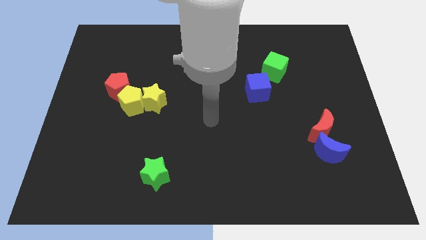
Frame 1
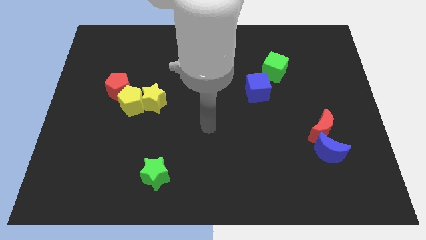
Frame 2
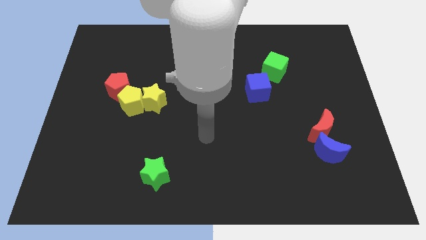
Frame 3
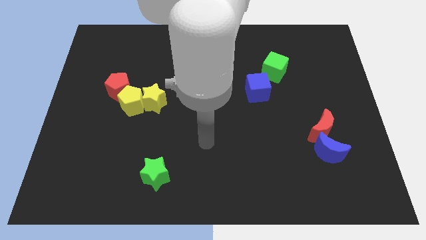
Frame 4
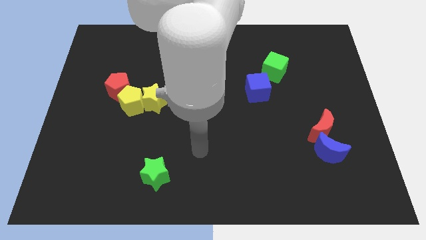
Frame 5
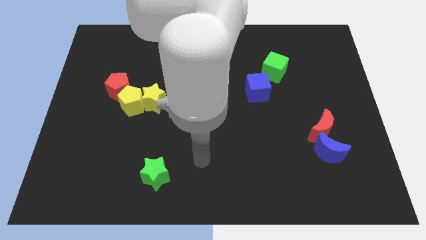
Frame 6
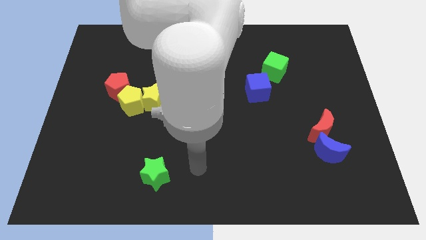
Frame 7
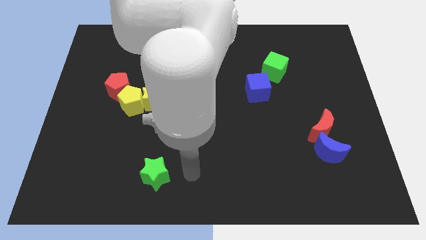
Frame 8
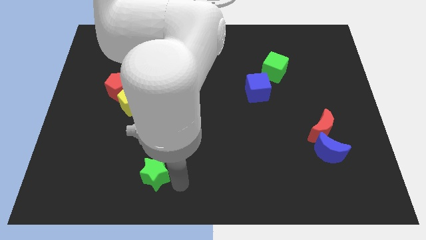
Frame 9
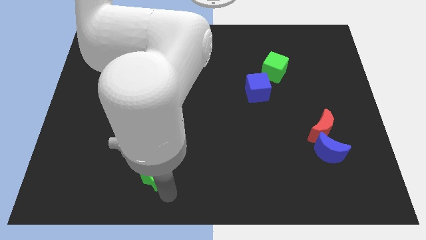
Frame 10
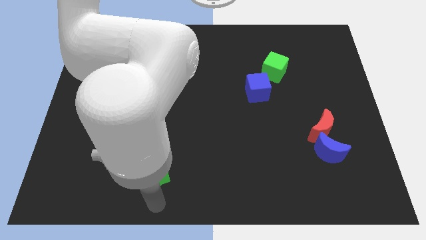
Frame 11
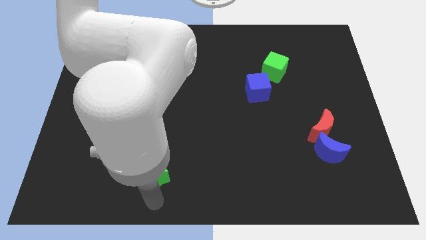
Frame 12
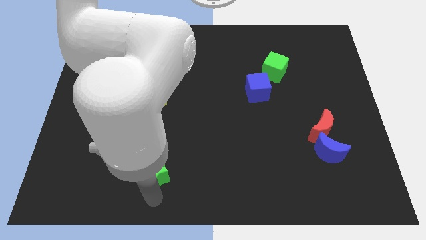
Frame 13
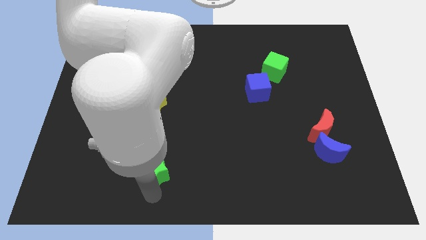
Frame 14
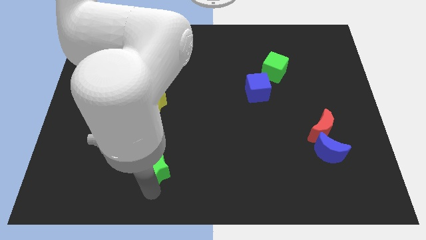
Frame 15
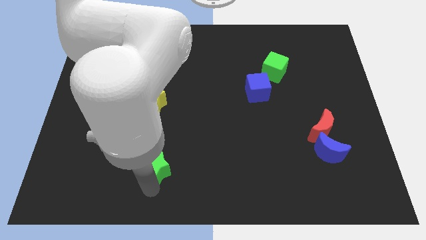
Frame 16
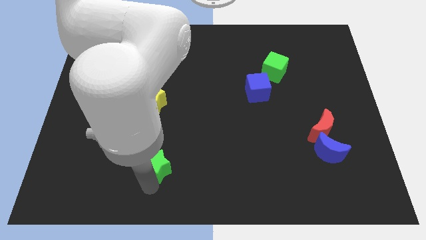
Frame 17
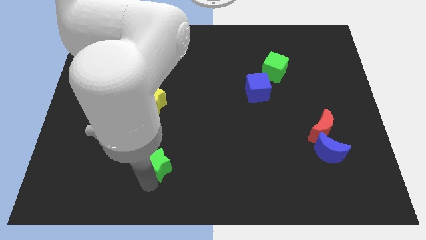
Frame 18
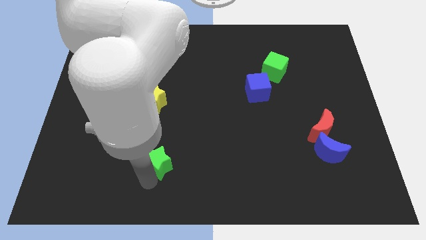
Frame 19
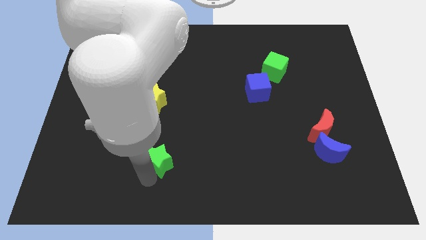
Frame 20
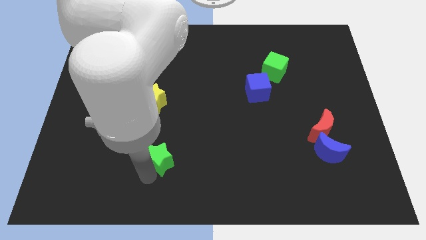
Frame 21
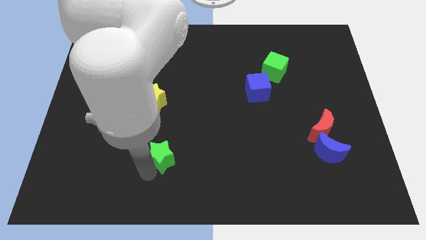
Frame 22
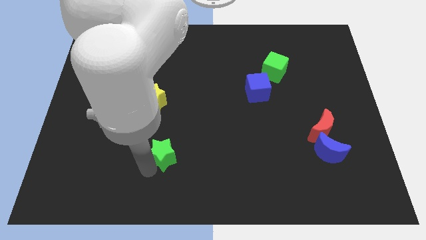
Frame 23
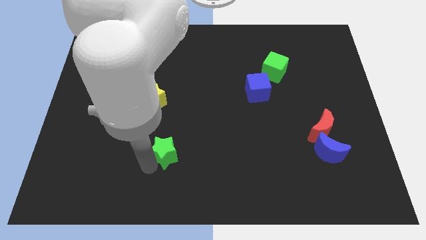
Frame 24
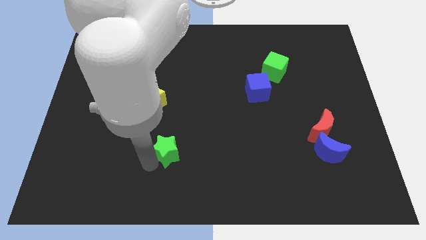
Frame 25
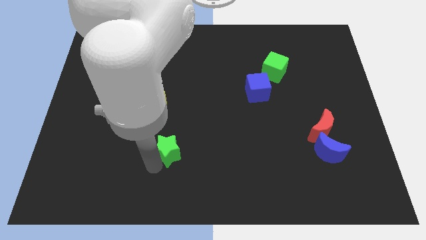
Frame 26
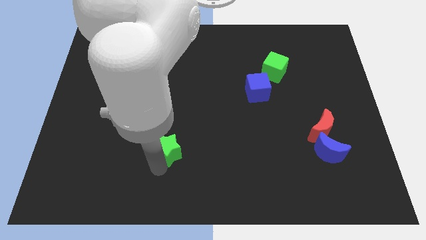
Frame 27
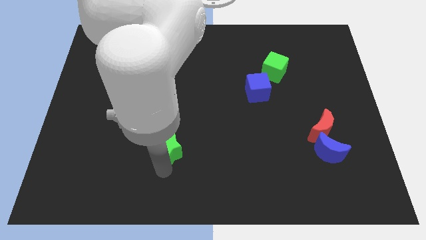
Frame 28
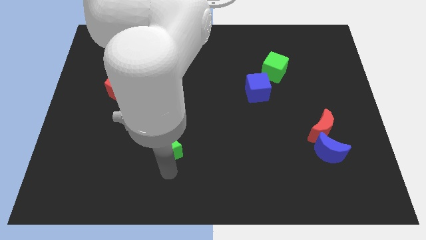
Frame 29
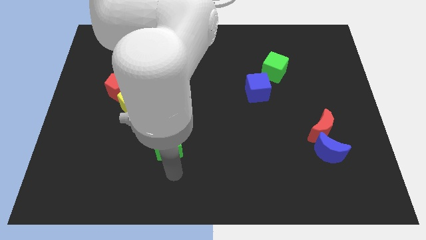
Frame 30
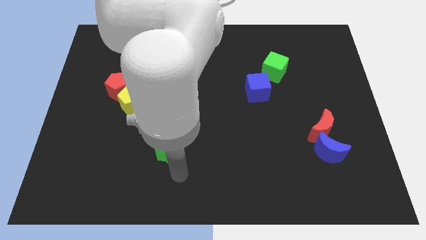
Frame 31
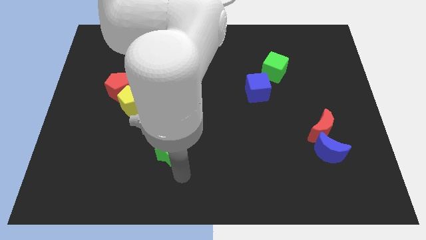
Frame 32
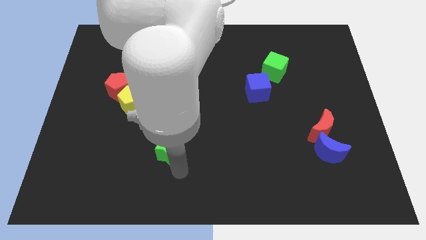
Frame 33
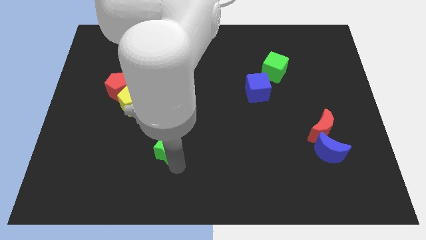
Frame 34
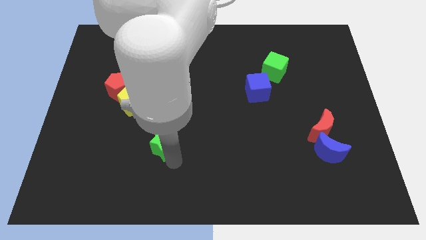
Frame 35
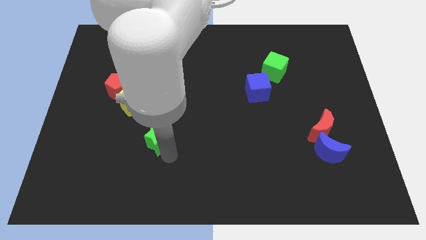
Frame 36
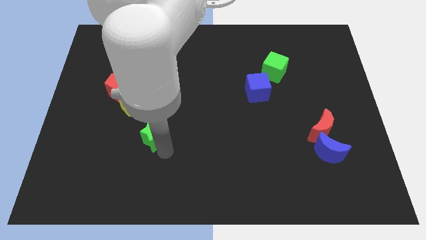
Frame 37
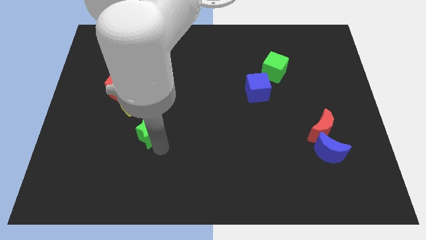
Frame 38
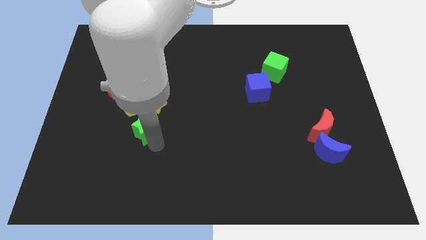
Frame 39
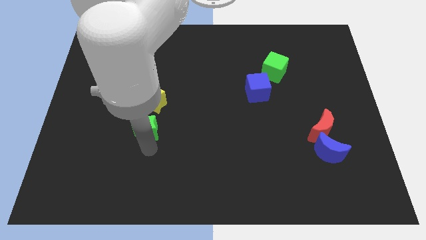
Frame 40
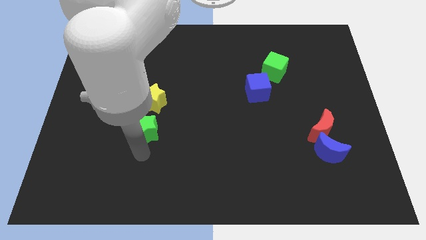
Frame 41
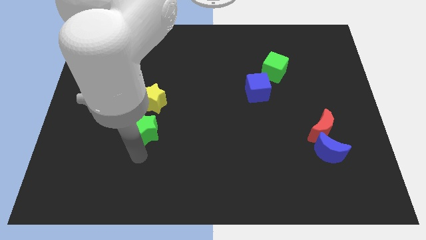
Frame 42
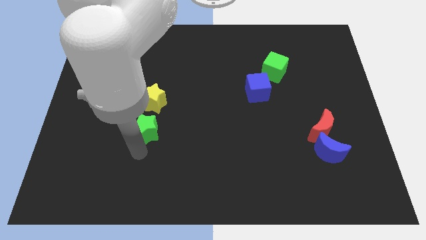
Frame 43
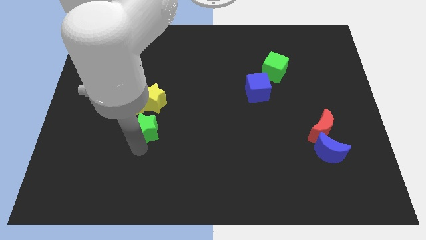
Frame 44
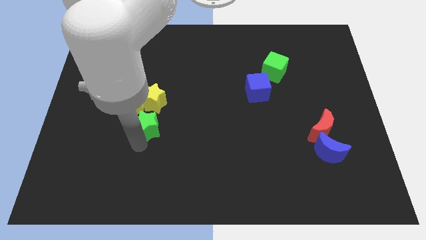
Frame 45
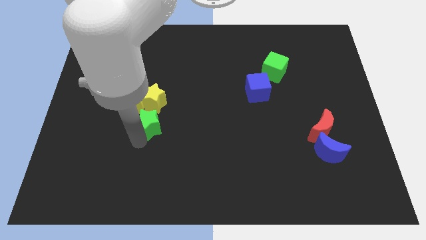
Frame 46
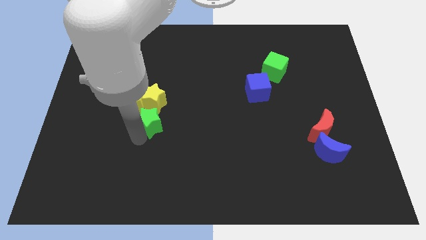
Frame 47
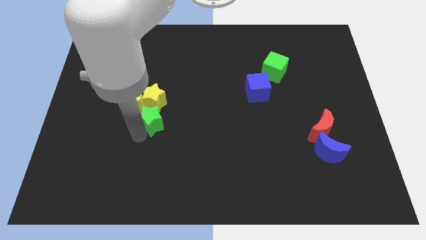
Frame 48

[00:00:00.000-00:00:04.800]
move the green star next to the yellow star

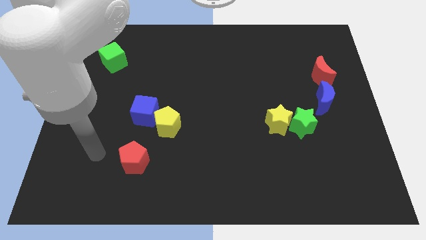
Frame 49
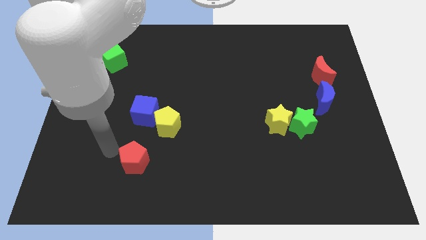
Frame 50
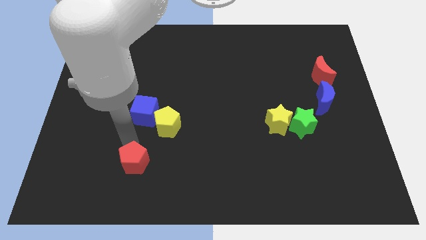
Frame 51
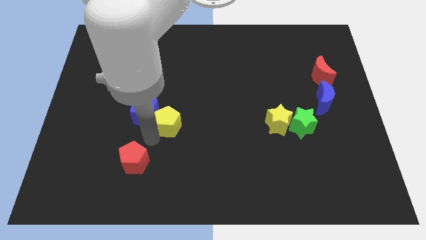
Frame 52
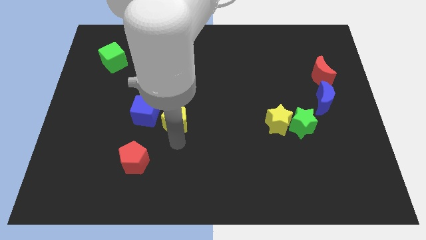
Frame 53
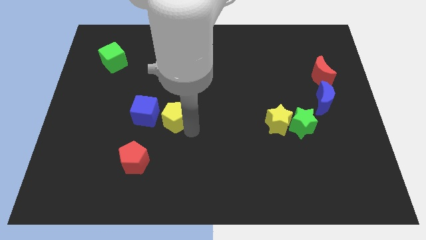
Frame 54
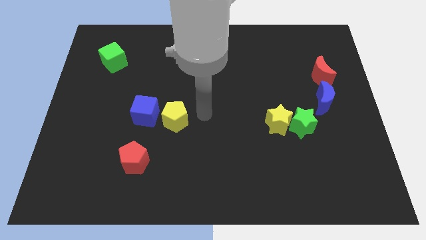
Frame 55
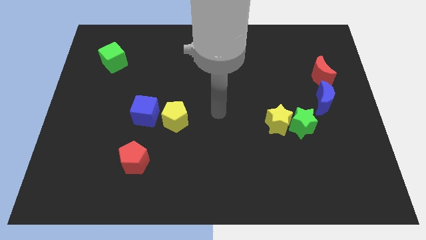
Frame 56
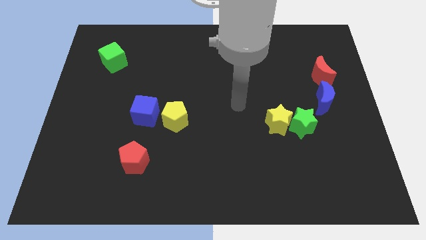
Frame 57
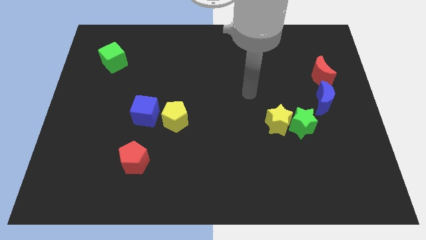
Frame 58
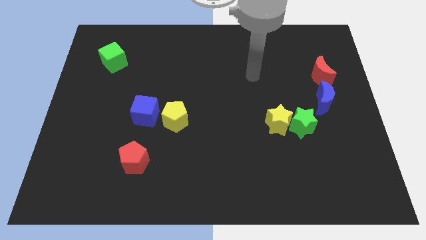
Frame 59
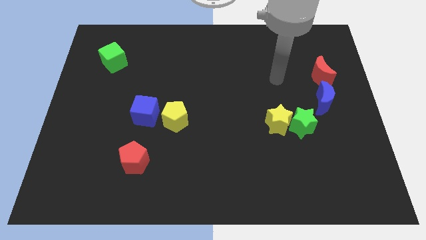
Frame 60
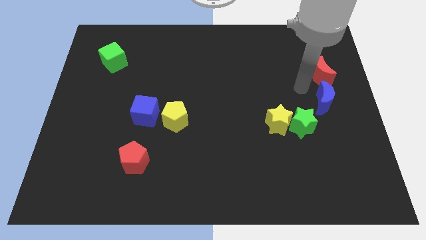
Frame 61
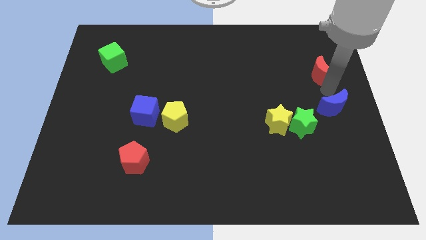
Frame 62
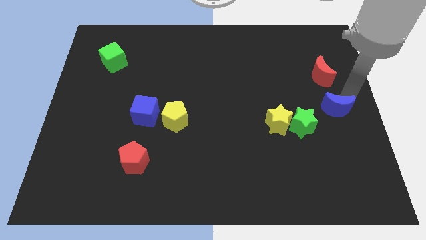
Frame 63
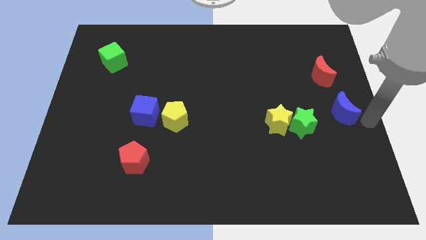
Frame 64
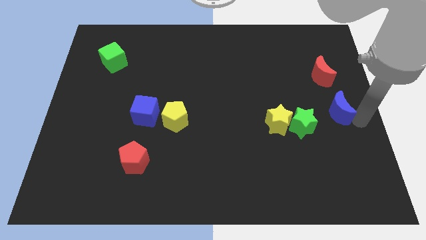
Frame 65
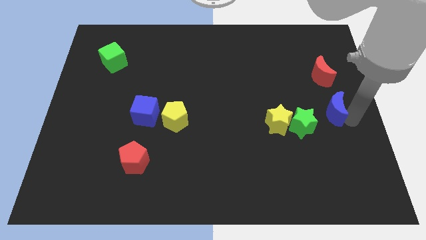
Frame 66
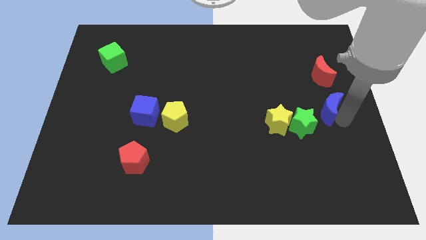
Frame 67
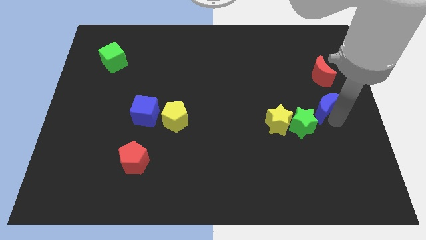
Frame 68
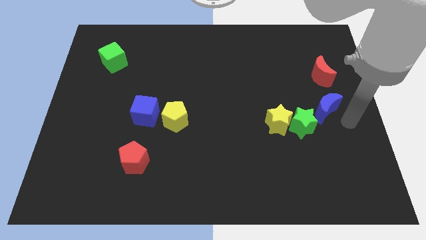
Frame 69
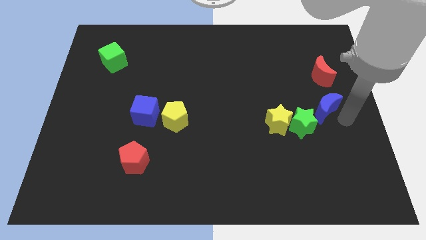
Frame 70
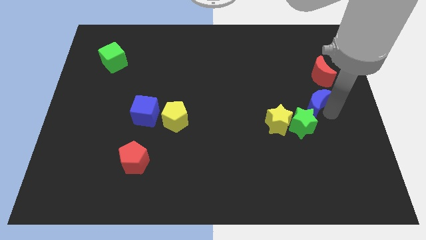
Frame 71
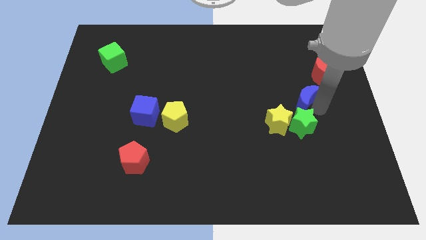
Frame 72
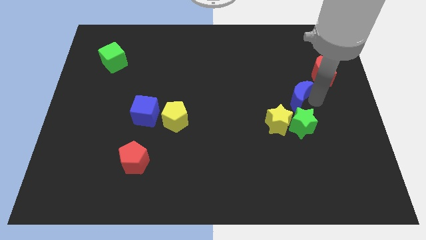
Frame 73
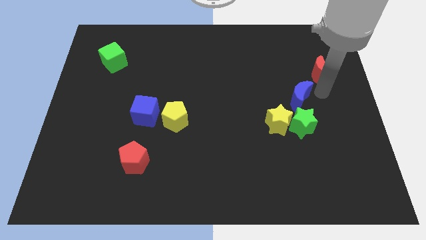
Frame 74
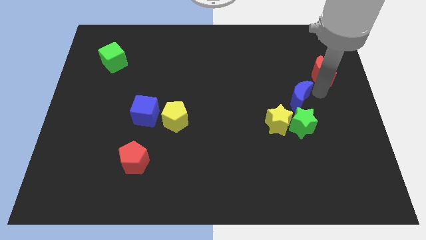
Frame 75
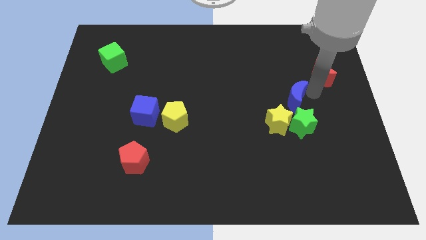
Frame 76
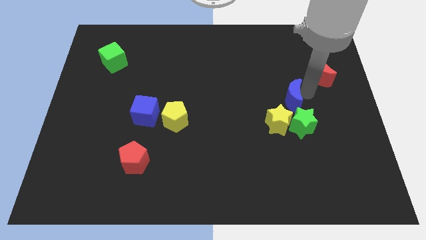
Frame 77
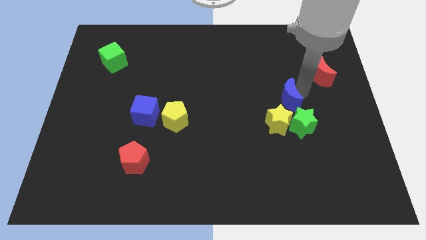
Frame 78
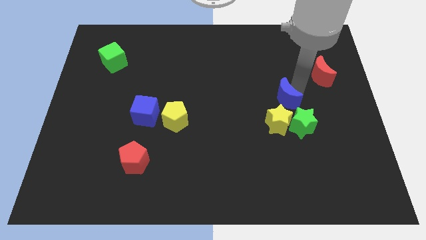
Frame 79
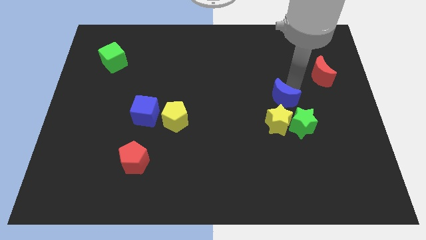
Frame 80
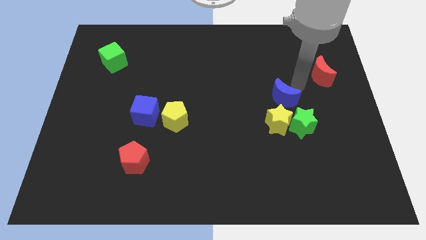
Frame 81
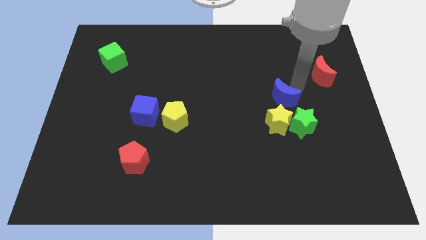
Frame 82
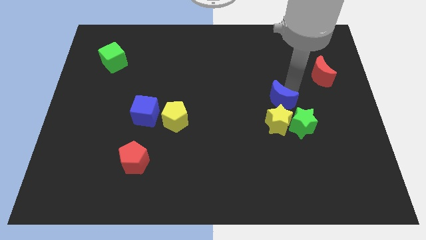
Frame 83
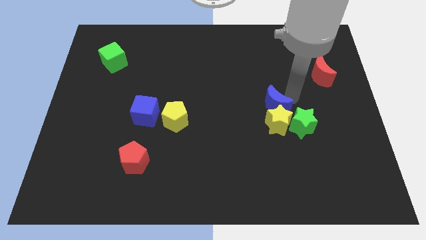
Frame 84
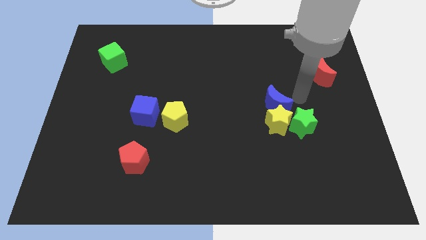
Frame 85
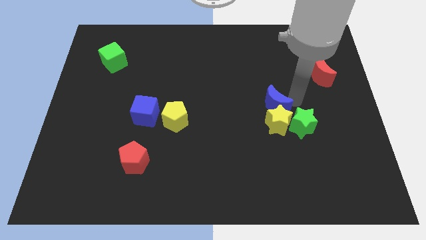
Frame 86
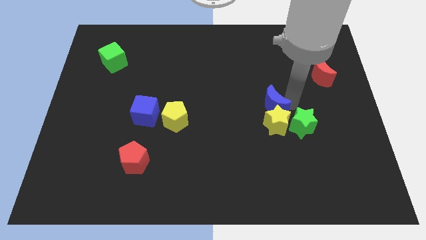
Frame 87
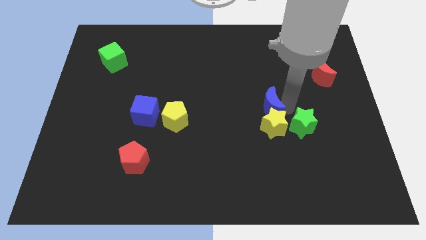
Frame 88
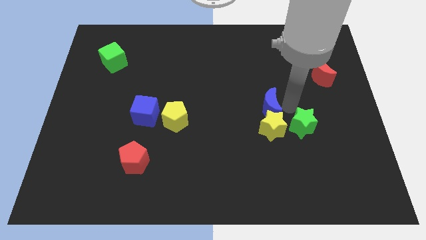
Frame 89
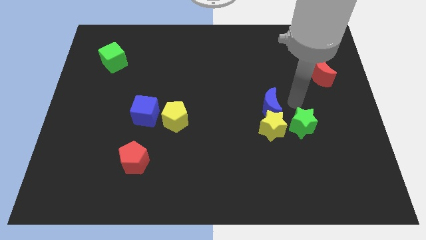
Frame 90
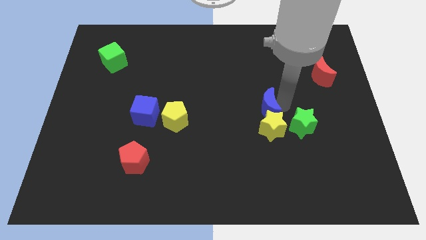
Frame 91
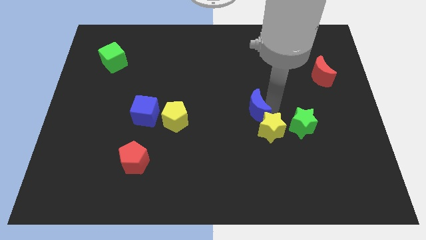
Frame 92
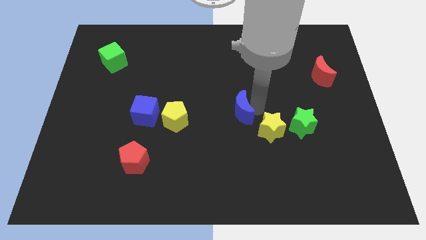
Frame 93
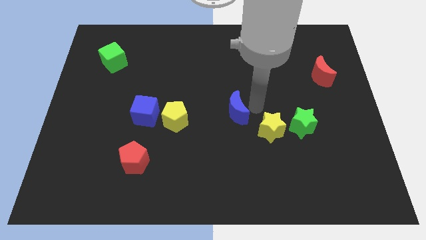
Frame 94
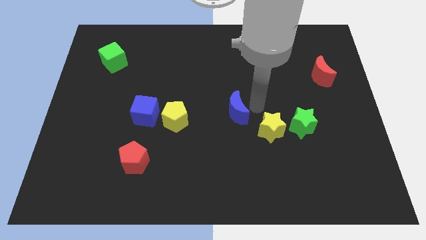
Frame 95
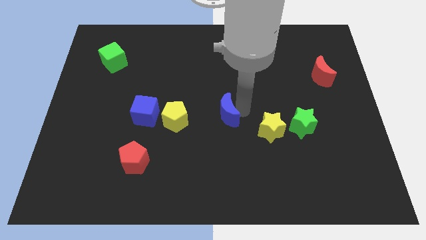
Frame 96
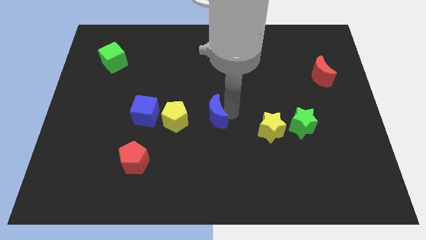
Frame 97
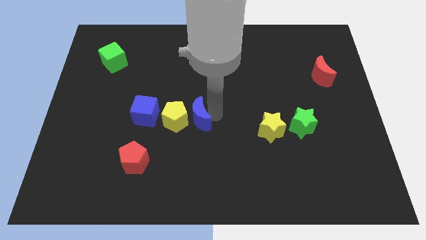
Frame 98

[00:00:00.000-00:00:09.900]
push the blue moon to the yellow pentagon
